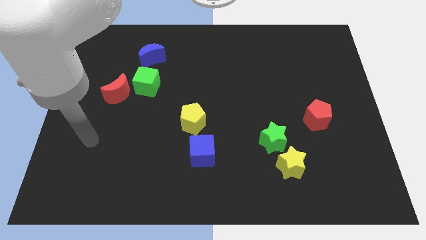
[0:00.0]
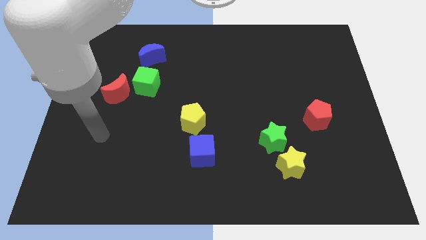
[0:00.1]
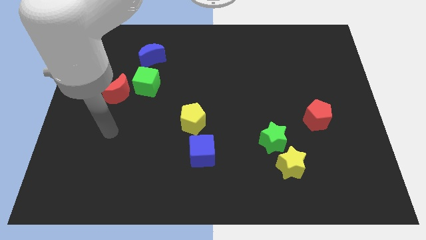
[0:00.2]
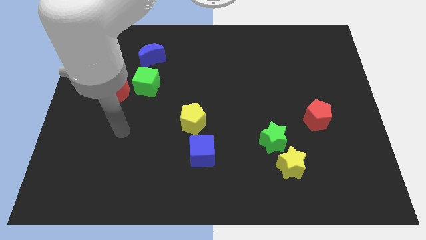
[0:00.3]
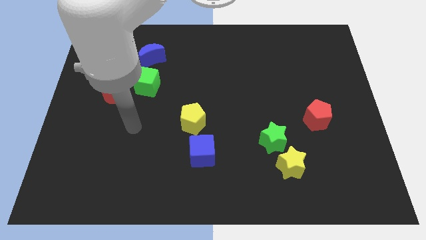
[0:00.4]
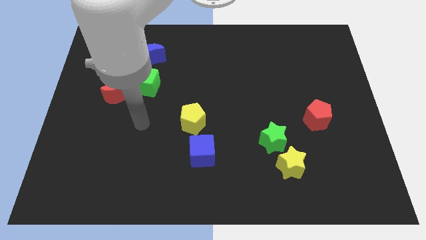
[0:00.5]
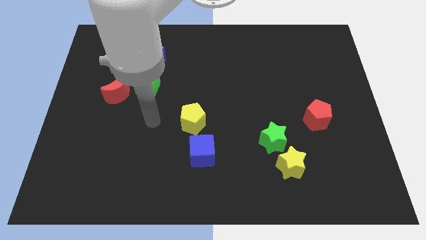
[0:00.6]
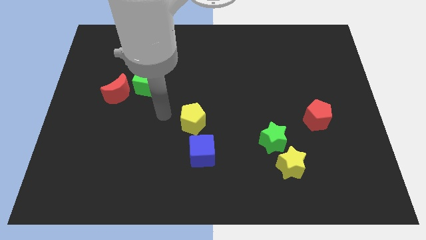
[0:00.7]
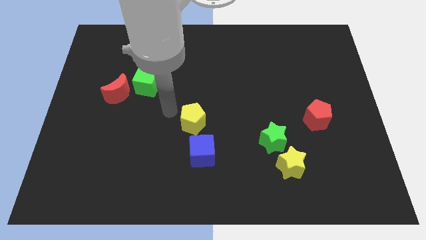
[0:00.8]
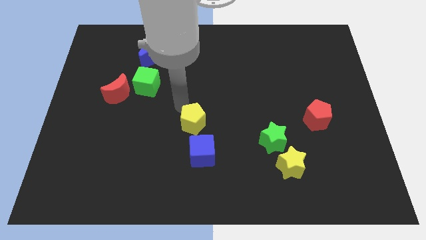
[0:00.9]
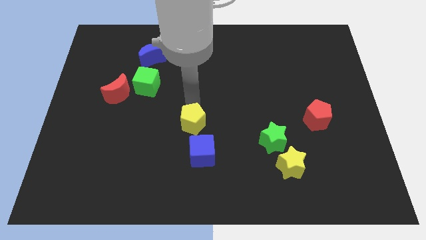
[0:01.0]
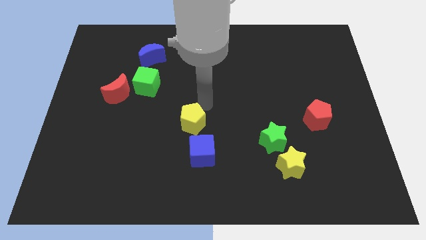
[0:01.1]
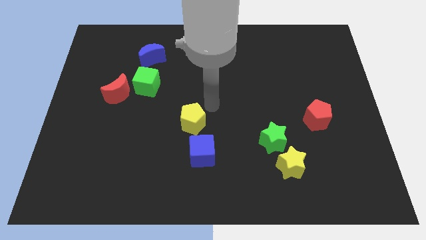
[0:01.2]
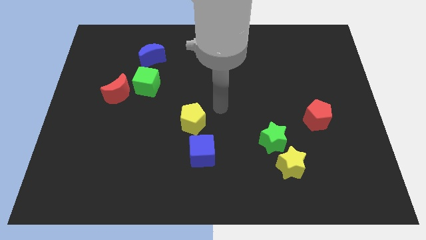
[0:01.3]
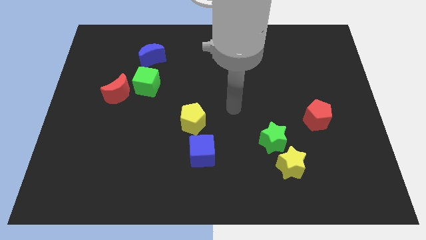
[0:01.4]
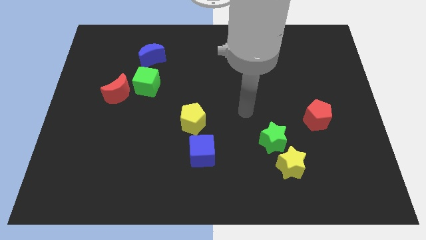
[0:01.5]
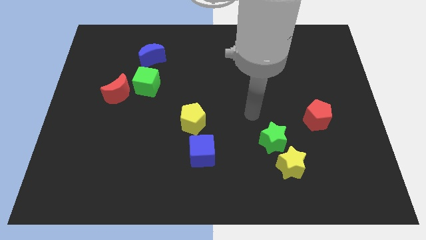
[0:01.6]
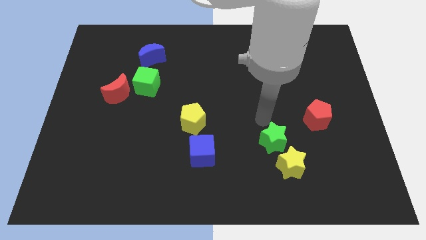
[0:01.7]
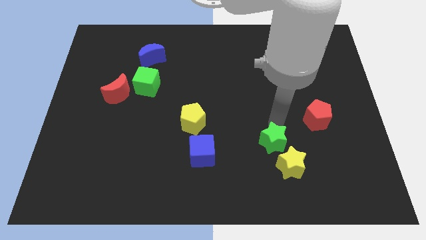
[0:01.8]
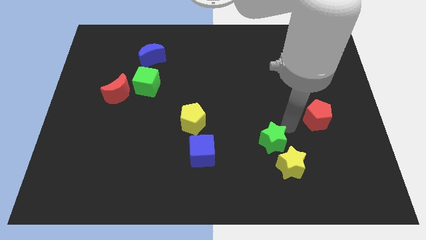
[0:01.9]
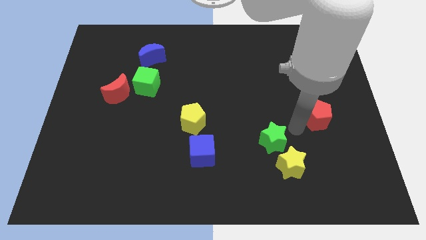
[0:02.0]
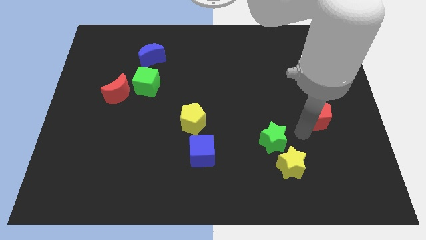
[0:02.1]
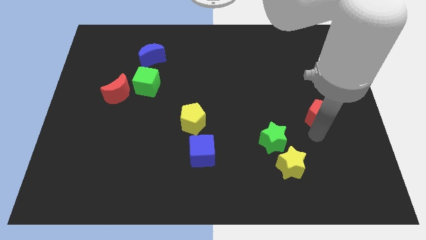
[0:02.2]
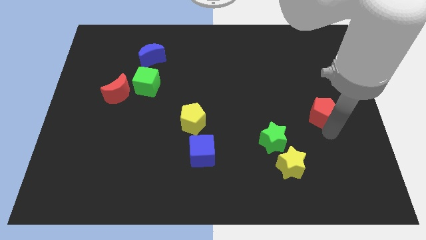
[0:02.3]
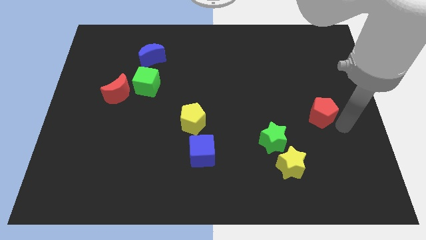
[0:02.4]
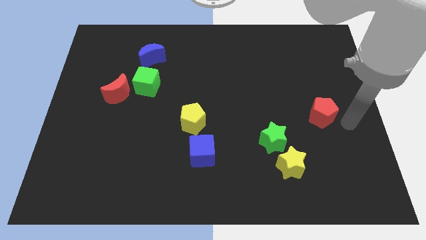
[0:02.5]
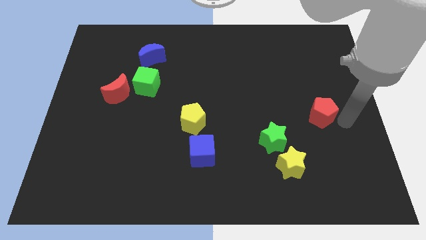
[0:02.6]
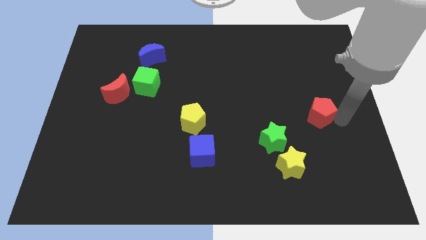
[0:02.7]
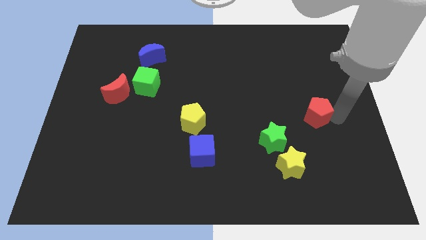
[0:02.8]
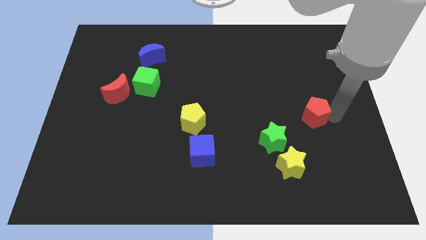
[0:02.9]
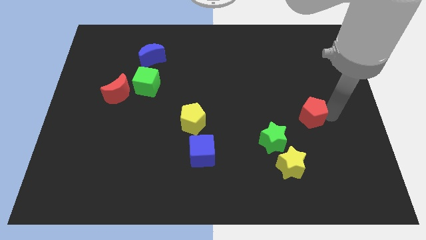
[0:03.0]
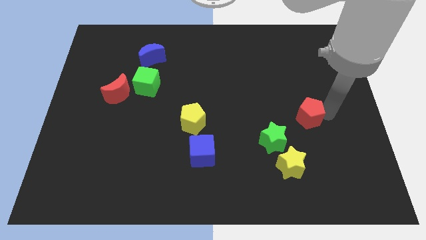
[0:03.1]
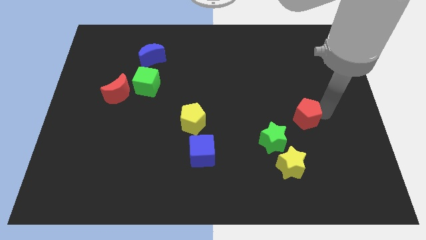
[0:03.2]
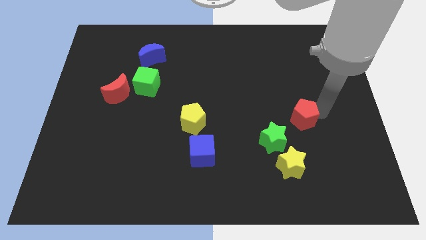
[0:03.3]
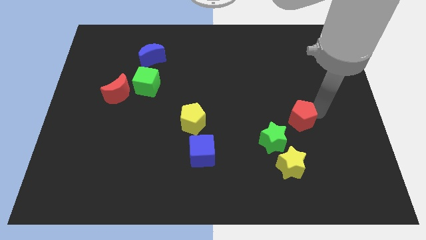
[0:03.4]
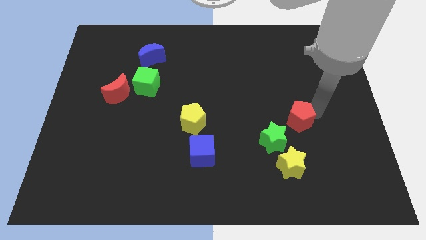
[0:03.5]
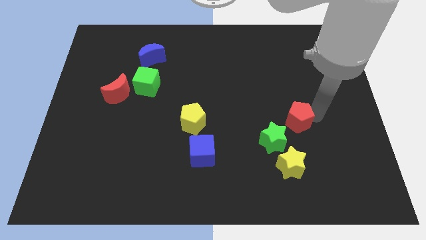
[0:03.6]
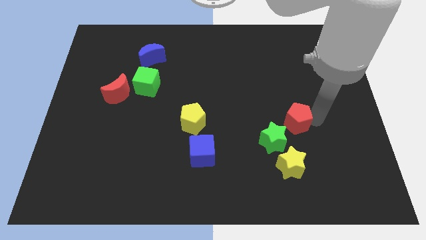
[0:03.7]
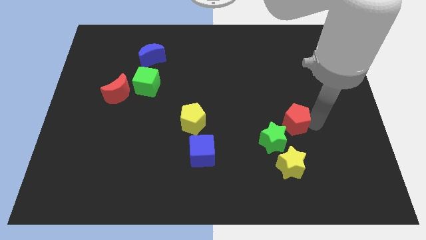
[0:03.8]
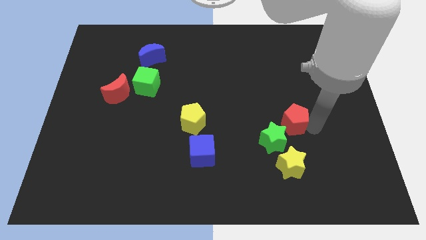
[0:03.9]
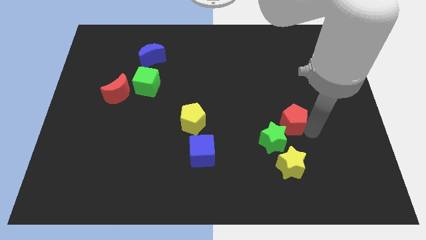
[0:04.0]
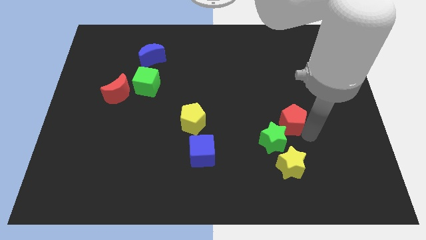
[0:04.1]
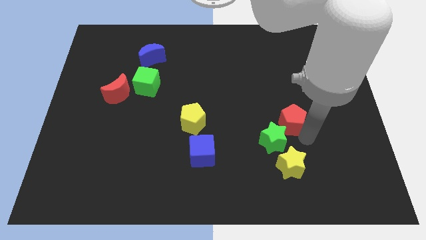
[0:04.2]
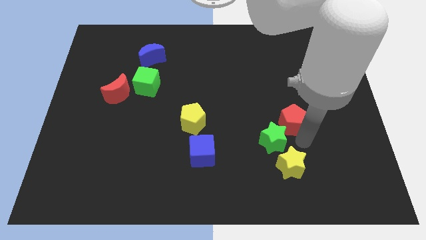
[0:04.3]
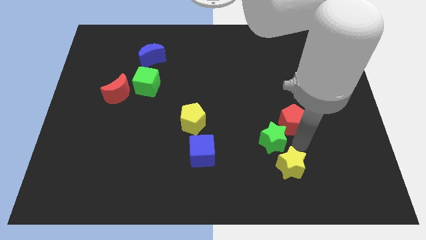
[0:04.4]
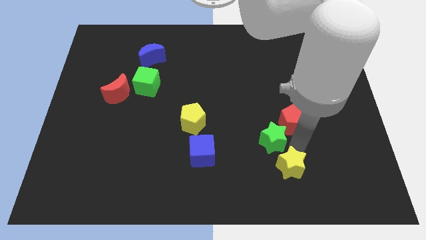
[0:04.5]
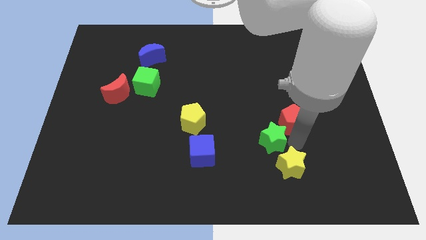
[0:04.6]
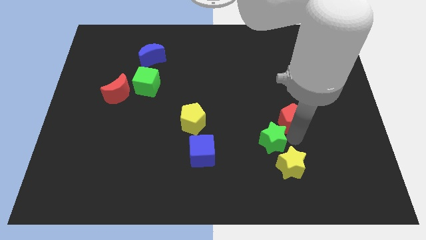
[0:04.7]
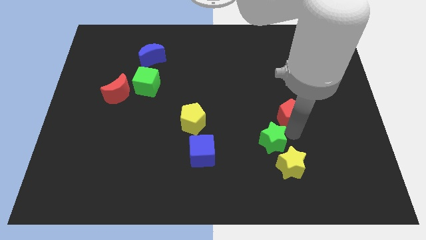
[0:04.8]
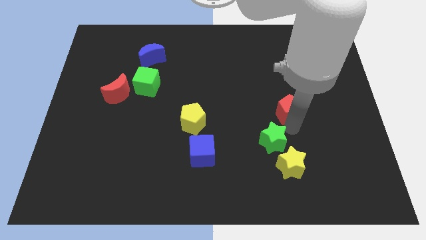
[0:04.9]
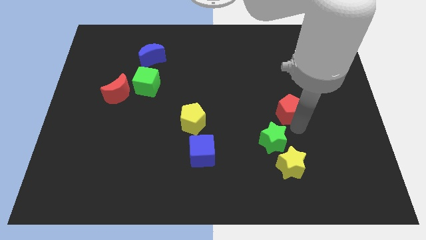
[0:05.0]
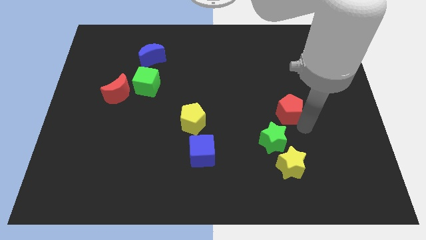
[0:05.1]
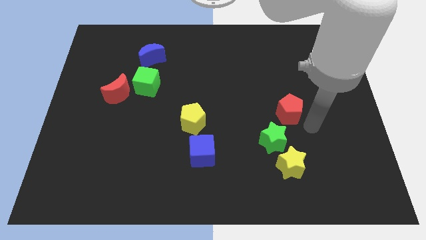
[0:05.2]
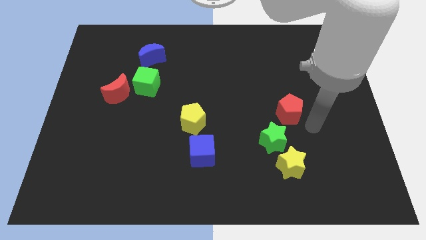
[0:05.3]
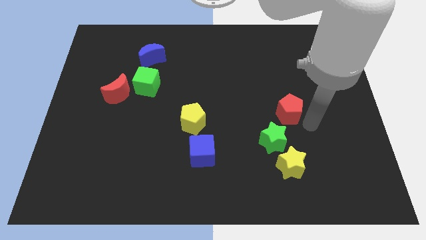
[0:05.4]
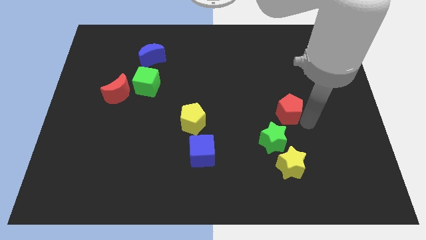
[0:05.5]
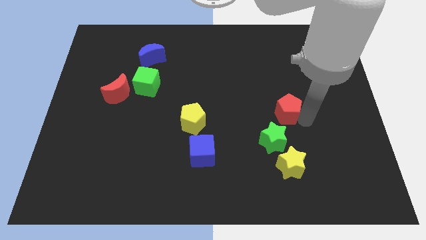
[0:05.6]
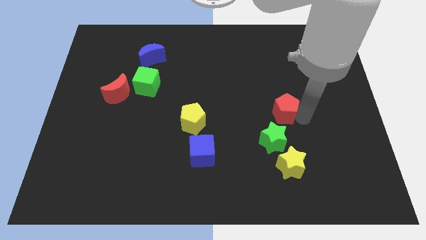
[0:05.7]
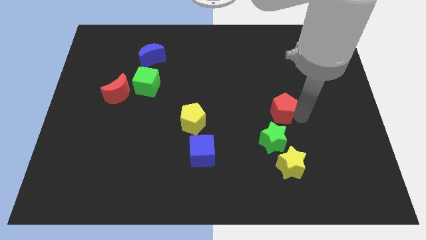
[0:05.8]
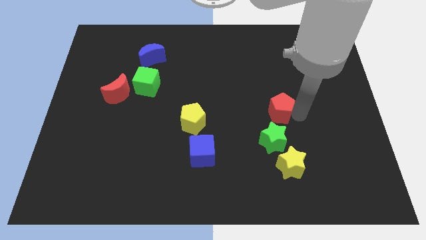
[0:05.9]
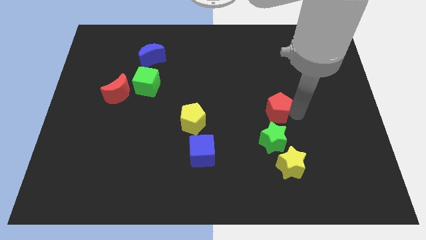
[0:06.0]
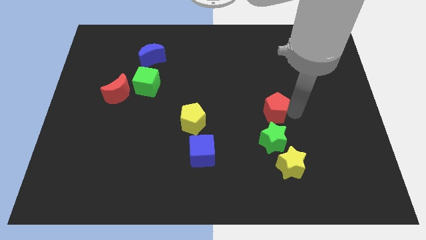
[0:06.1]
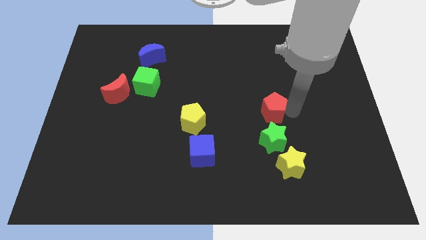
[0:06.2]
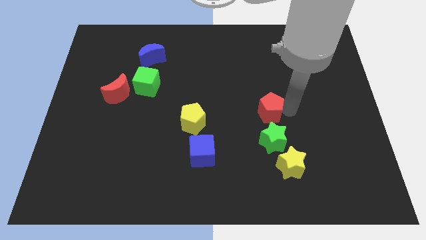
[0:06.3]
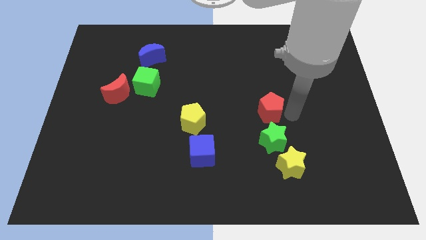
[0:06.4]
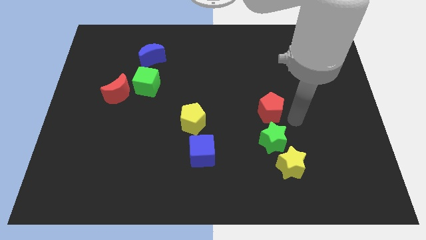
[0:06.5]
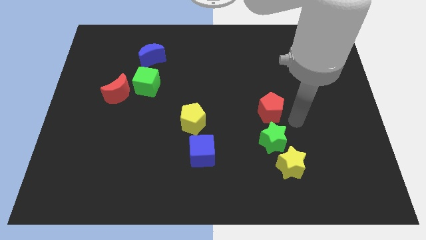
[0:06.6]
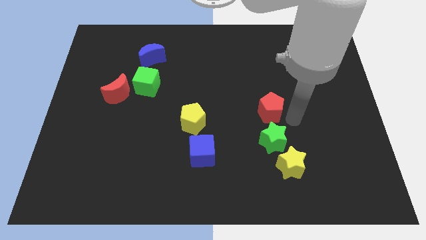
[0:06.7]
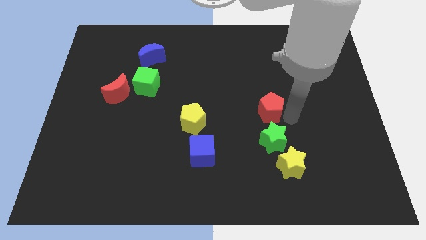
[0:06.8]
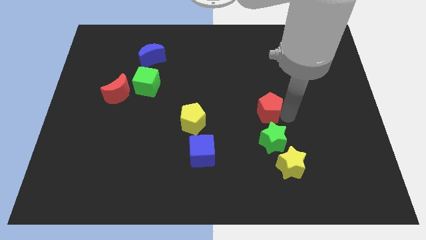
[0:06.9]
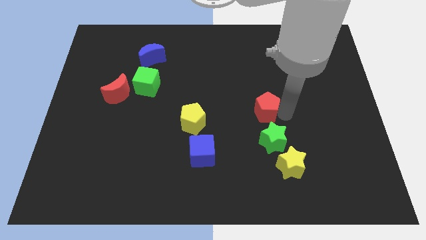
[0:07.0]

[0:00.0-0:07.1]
put the red pentagon to the center of the board

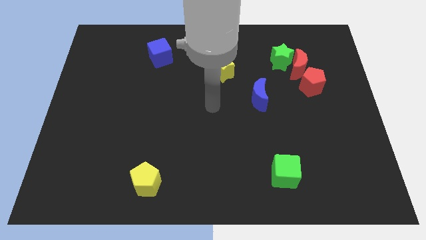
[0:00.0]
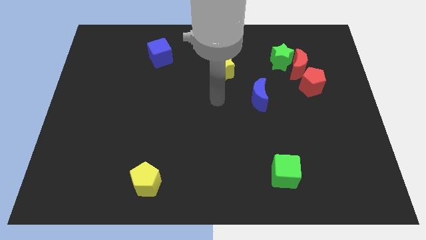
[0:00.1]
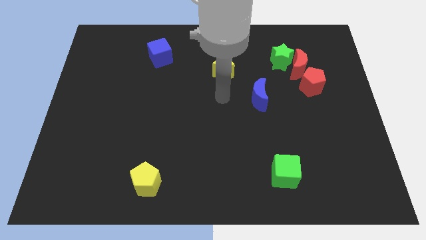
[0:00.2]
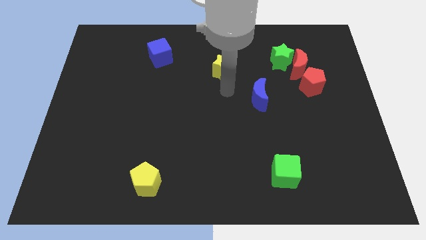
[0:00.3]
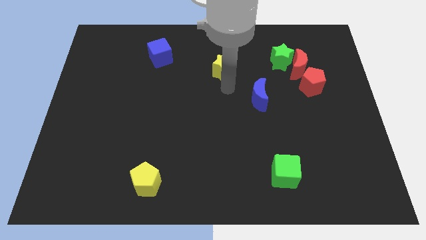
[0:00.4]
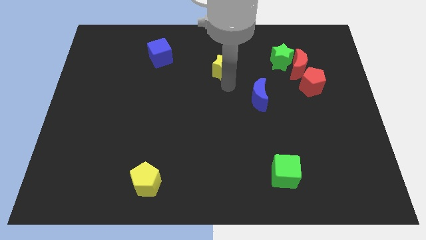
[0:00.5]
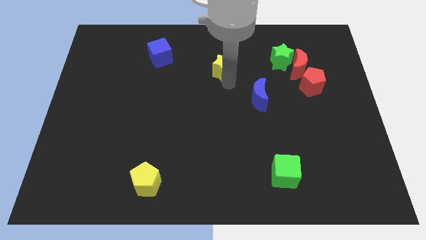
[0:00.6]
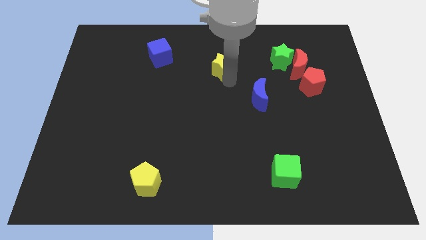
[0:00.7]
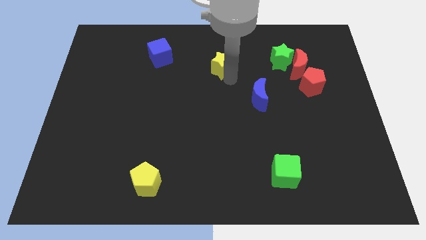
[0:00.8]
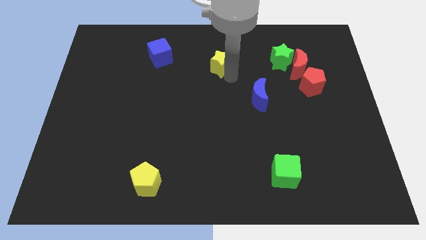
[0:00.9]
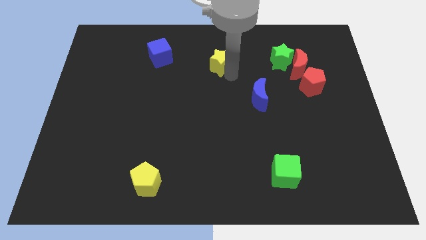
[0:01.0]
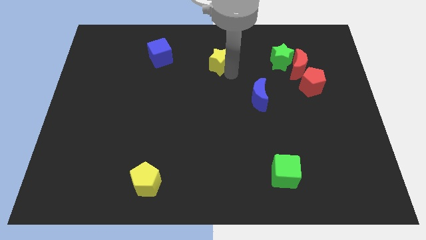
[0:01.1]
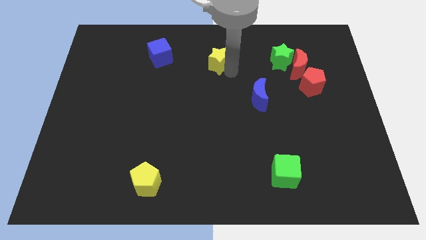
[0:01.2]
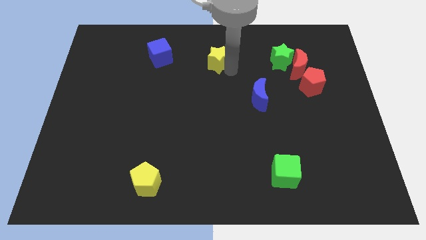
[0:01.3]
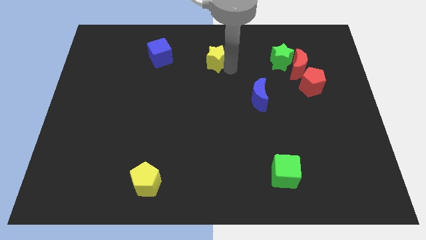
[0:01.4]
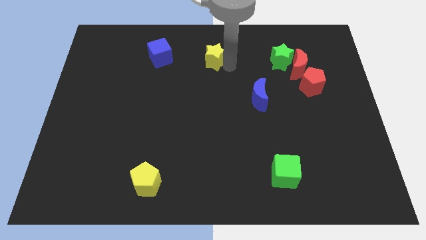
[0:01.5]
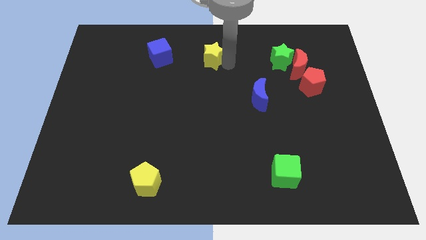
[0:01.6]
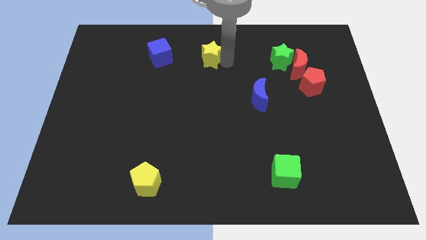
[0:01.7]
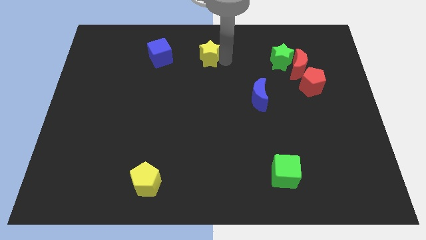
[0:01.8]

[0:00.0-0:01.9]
slide the yellow star to the top side
